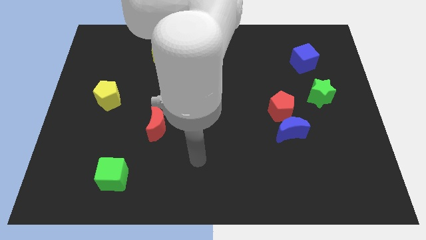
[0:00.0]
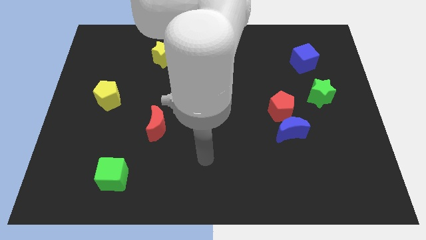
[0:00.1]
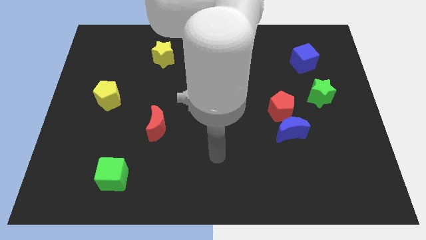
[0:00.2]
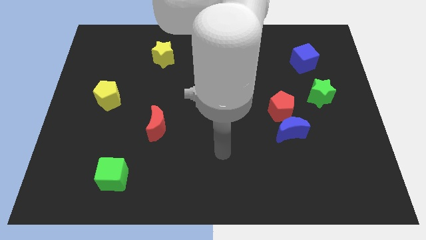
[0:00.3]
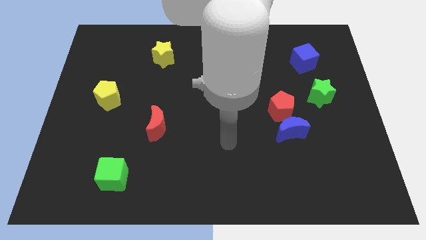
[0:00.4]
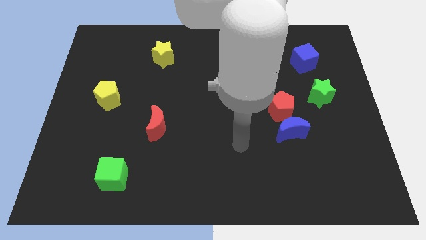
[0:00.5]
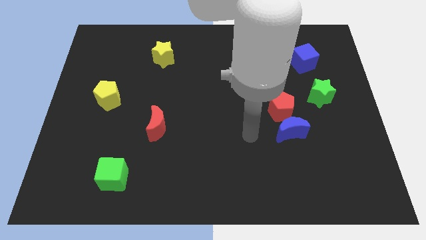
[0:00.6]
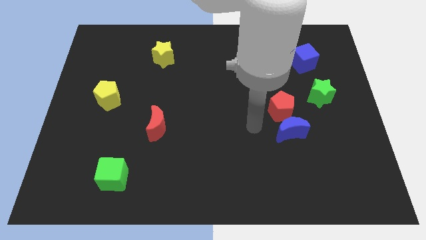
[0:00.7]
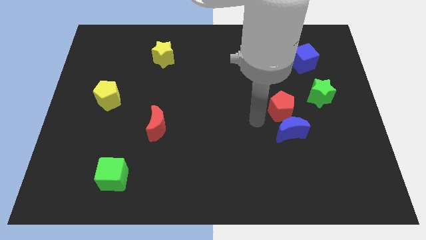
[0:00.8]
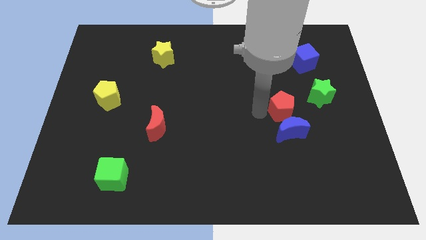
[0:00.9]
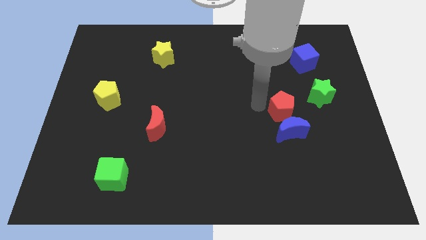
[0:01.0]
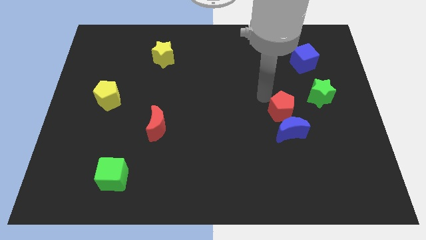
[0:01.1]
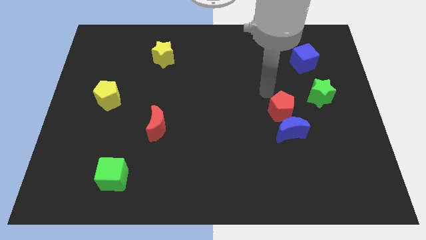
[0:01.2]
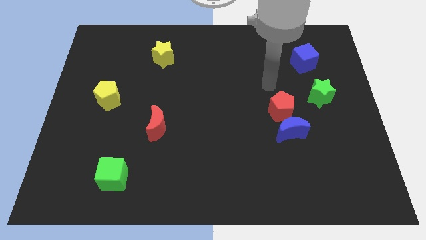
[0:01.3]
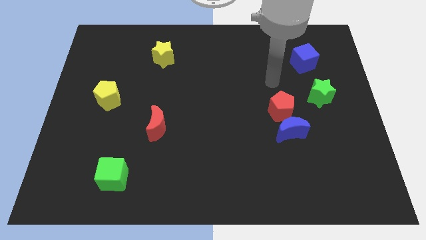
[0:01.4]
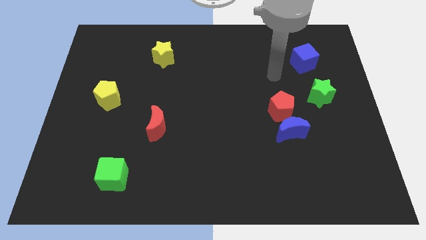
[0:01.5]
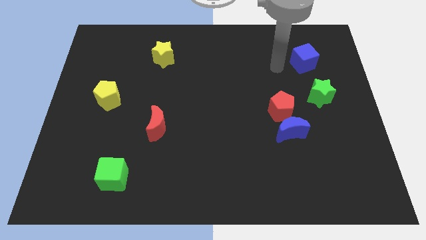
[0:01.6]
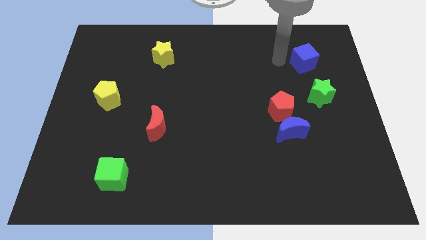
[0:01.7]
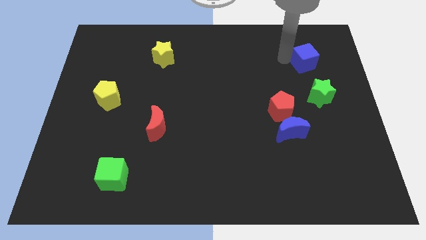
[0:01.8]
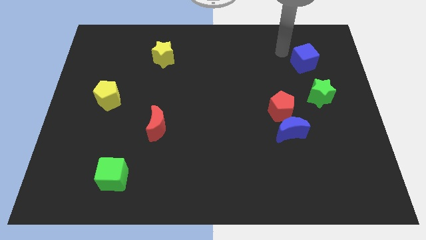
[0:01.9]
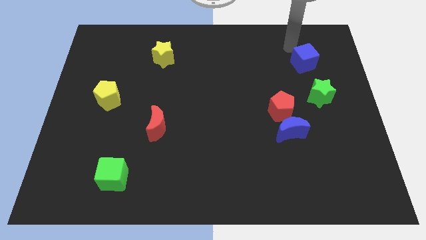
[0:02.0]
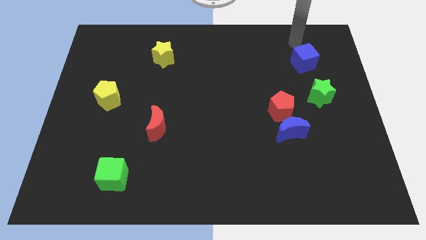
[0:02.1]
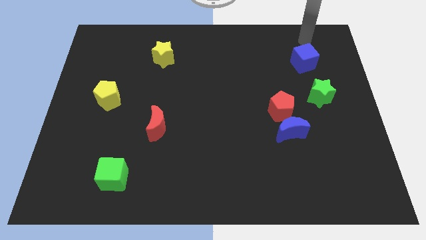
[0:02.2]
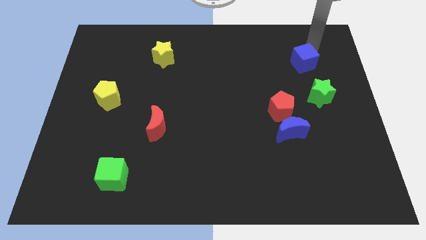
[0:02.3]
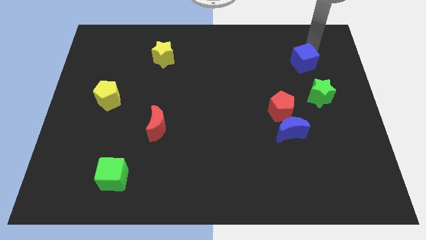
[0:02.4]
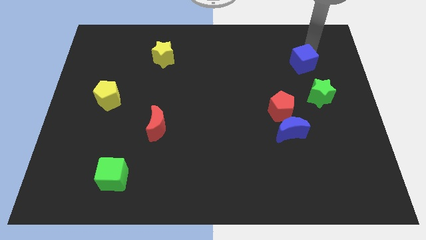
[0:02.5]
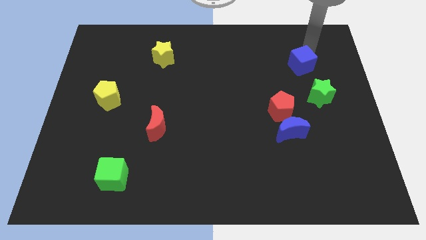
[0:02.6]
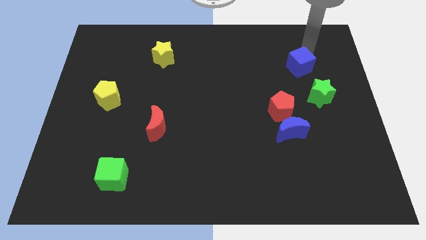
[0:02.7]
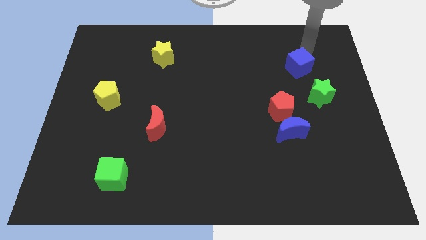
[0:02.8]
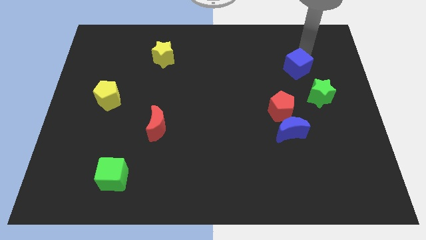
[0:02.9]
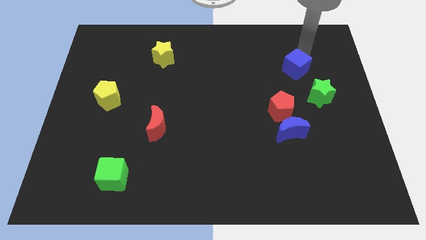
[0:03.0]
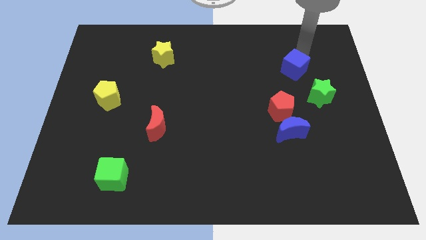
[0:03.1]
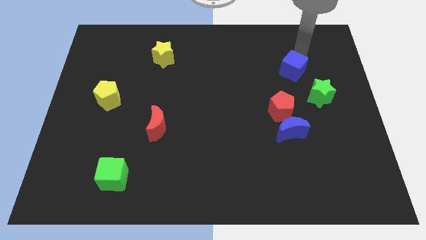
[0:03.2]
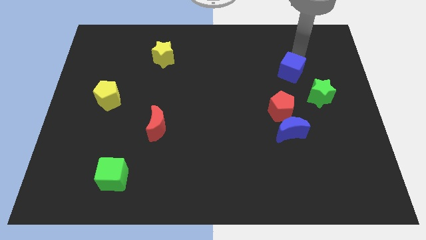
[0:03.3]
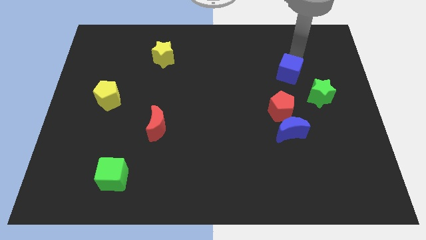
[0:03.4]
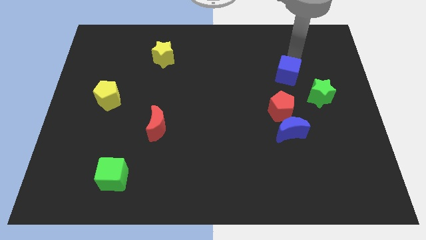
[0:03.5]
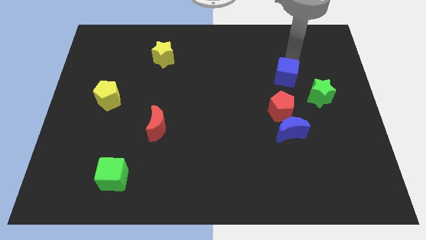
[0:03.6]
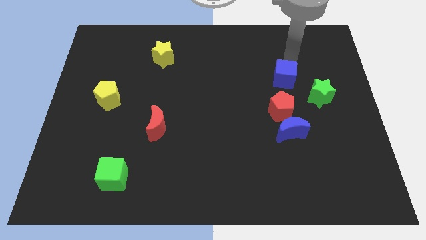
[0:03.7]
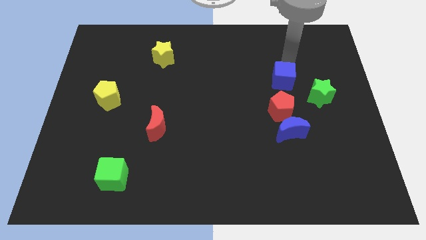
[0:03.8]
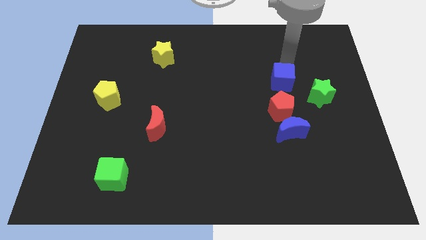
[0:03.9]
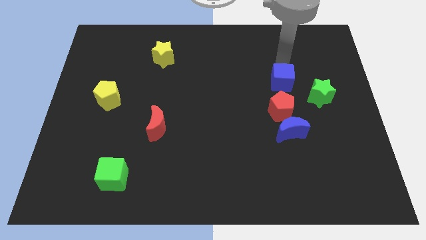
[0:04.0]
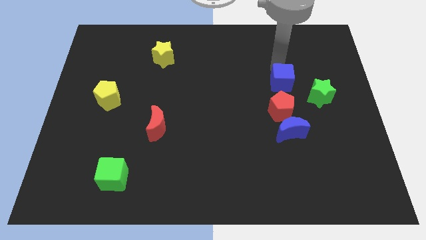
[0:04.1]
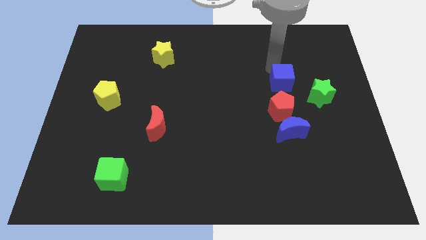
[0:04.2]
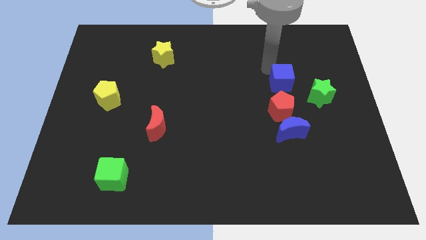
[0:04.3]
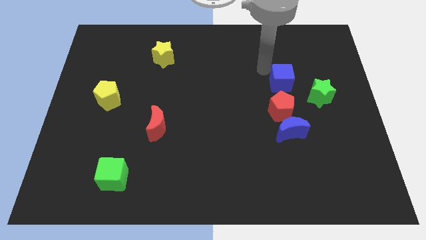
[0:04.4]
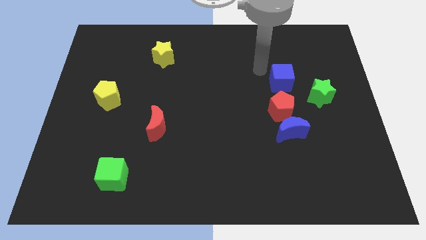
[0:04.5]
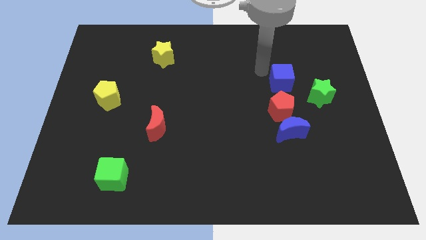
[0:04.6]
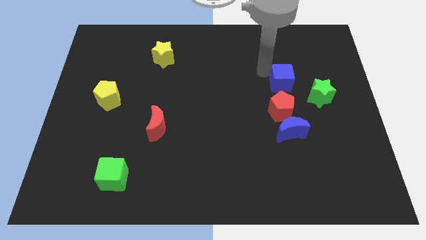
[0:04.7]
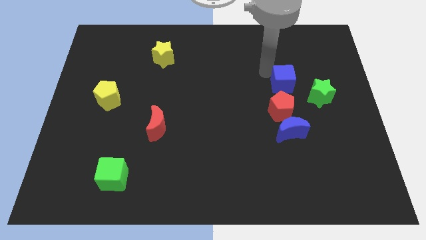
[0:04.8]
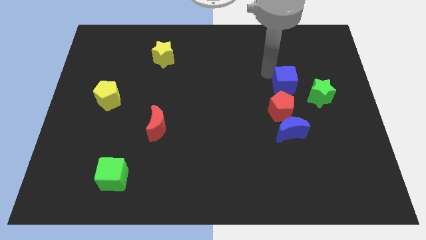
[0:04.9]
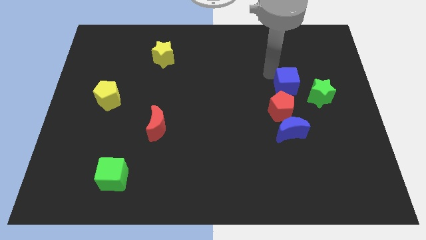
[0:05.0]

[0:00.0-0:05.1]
push the blue cube down somewhat

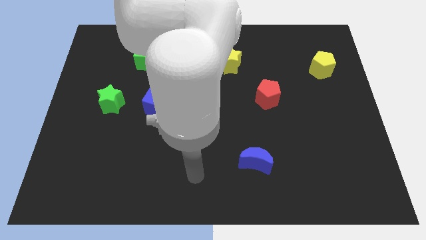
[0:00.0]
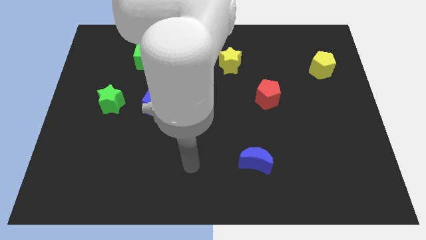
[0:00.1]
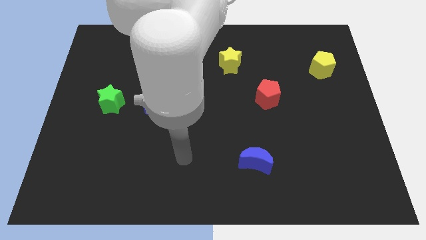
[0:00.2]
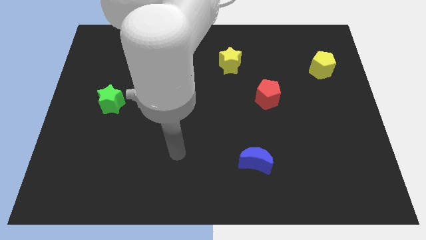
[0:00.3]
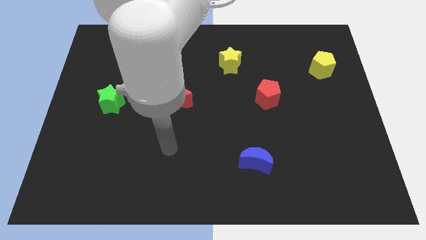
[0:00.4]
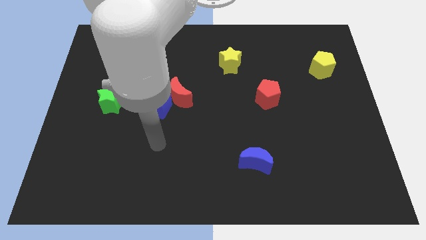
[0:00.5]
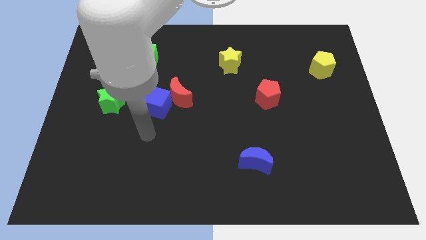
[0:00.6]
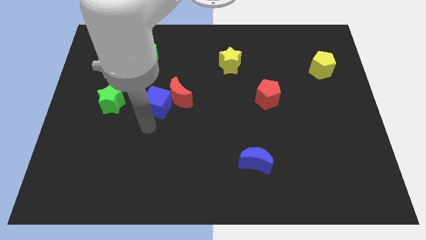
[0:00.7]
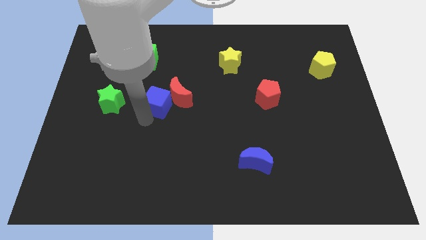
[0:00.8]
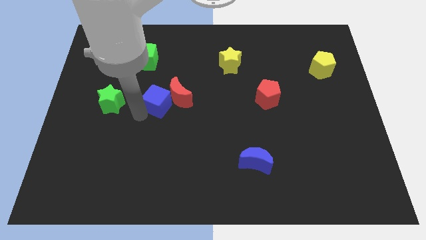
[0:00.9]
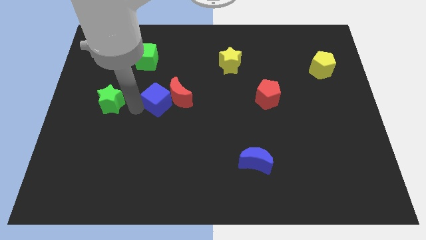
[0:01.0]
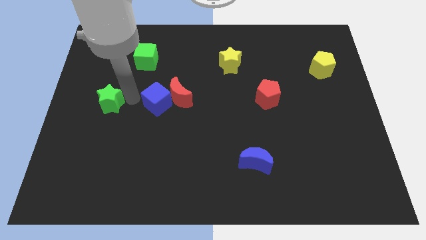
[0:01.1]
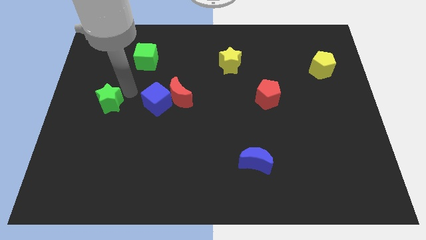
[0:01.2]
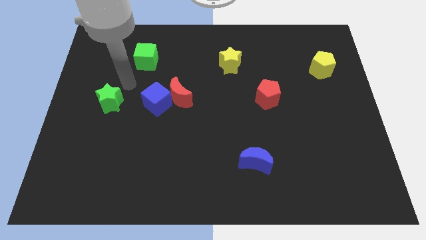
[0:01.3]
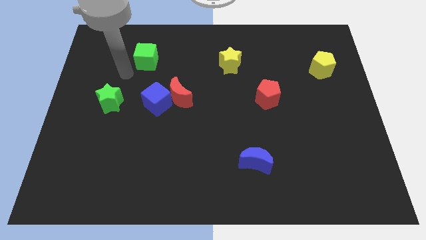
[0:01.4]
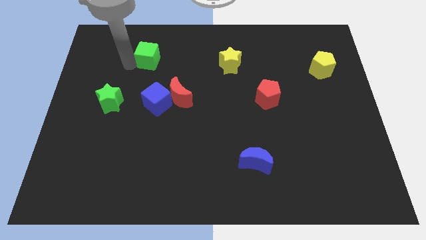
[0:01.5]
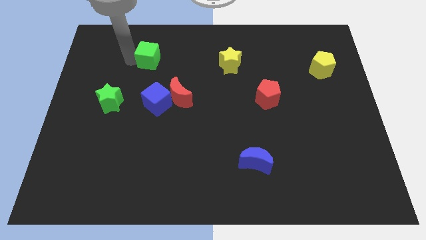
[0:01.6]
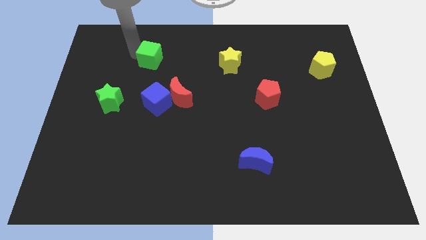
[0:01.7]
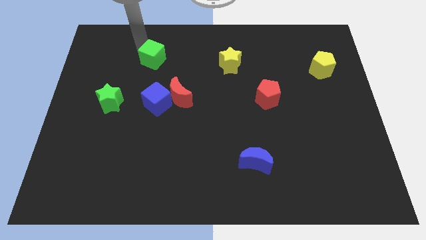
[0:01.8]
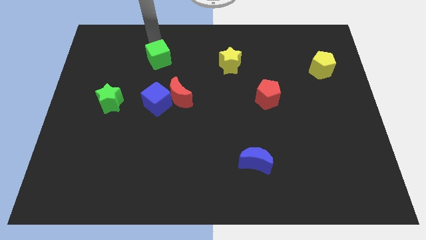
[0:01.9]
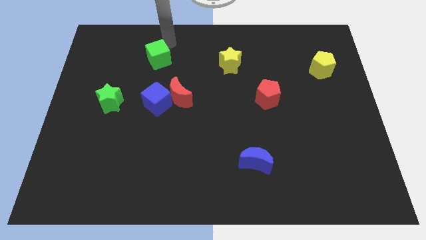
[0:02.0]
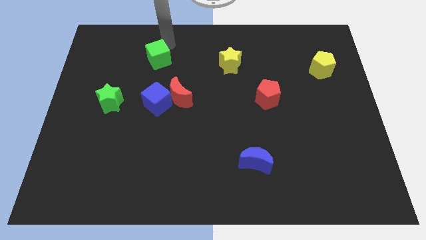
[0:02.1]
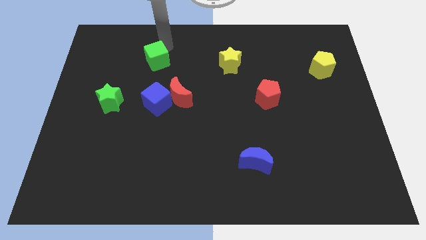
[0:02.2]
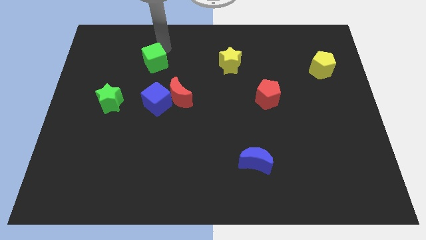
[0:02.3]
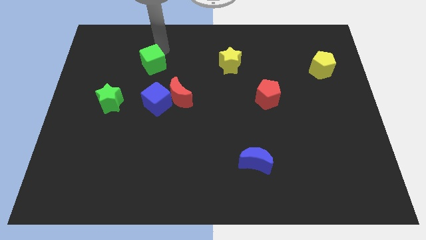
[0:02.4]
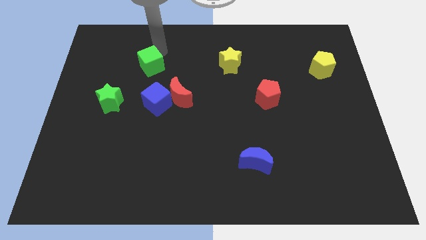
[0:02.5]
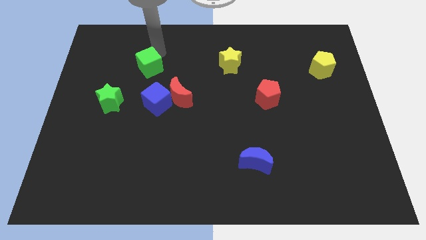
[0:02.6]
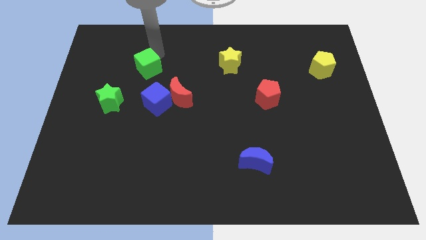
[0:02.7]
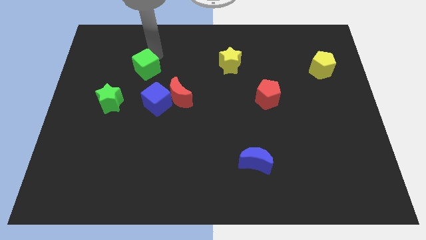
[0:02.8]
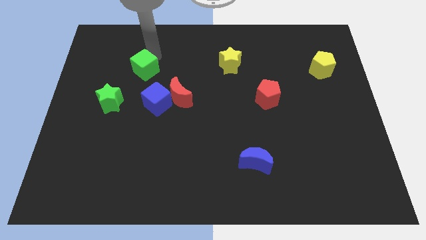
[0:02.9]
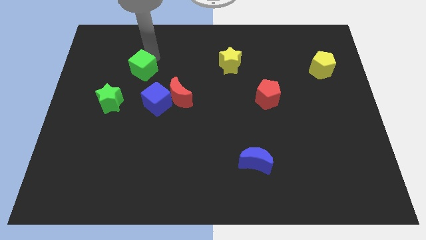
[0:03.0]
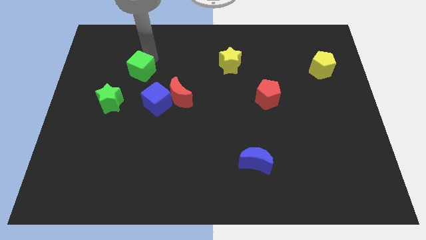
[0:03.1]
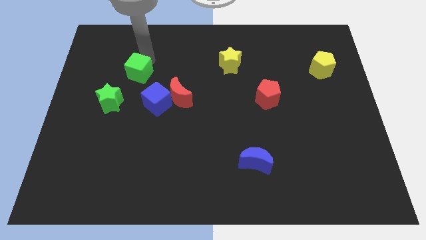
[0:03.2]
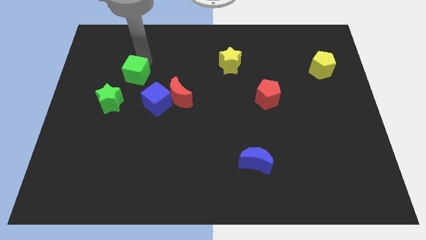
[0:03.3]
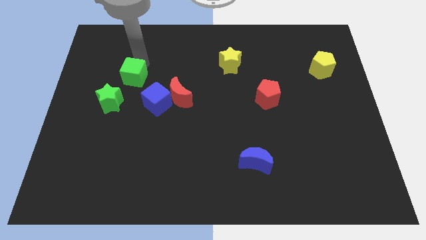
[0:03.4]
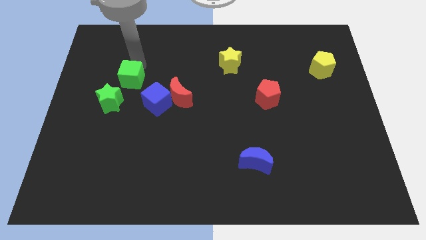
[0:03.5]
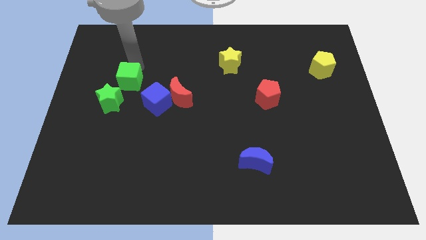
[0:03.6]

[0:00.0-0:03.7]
slide the green cube a little downwards
